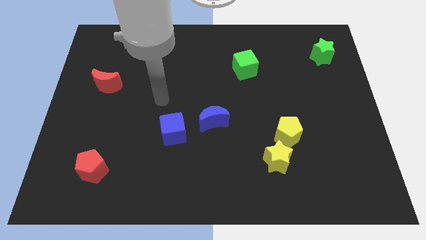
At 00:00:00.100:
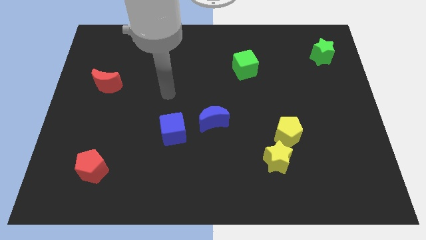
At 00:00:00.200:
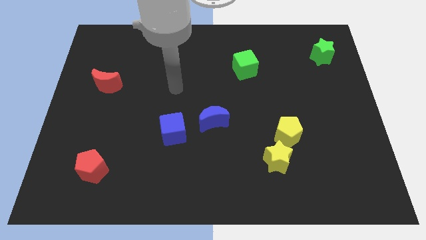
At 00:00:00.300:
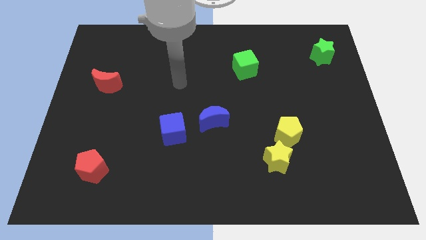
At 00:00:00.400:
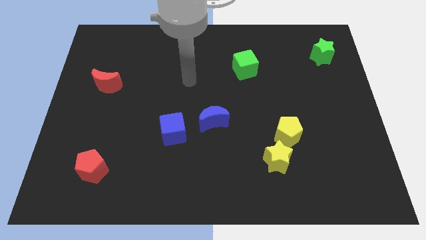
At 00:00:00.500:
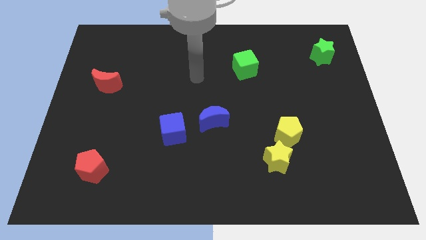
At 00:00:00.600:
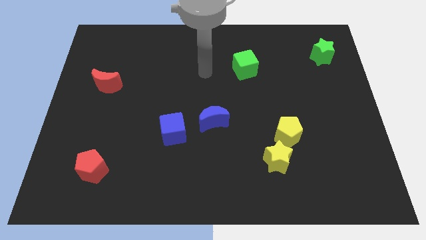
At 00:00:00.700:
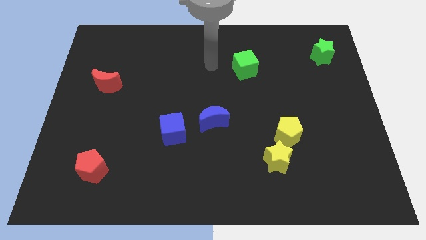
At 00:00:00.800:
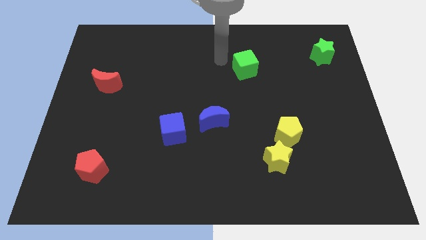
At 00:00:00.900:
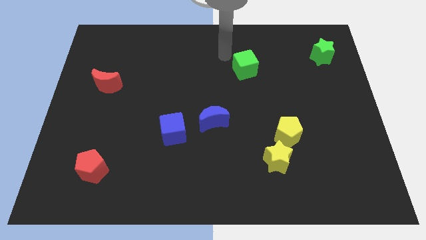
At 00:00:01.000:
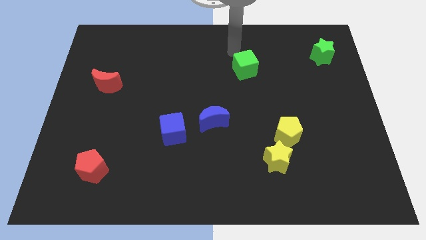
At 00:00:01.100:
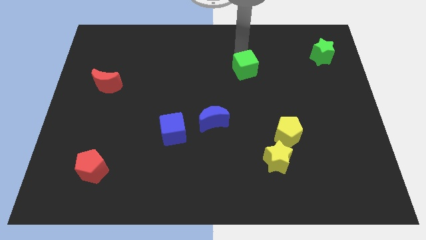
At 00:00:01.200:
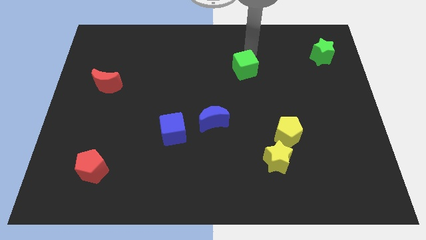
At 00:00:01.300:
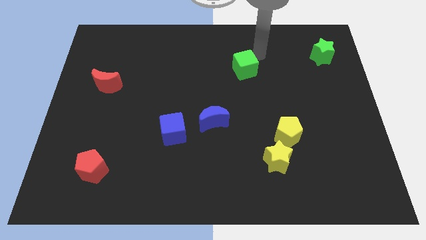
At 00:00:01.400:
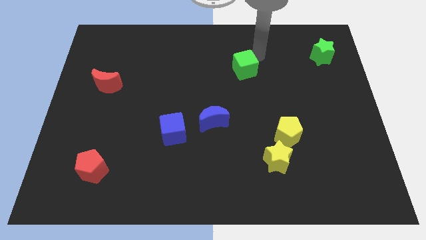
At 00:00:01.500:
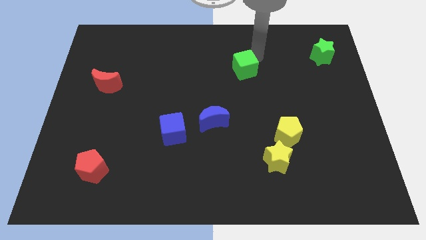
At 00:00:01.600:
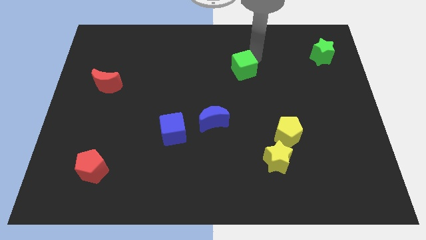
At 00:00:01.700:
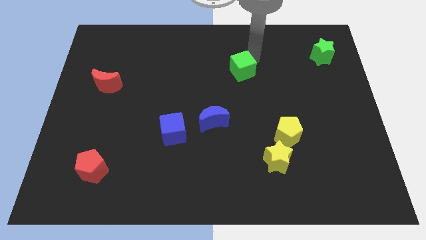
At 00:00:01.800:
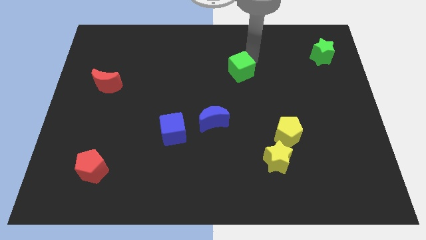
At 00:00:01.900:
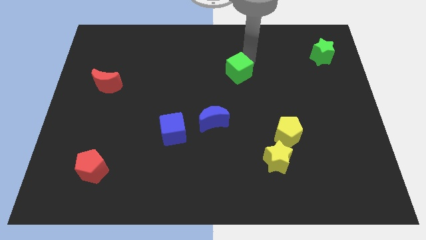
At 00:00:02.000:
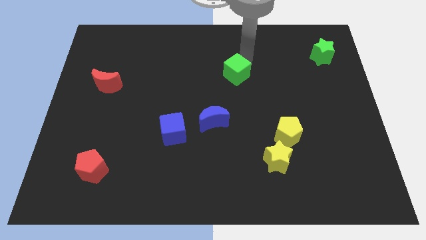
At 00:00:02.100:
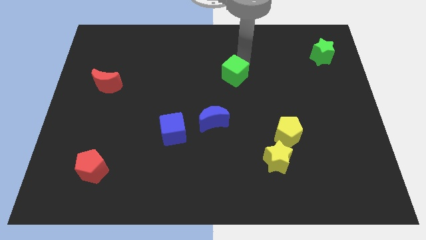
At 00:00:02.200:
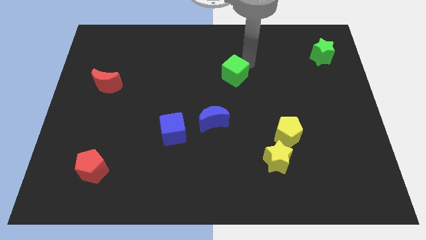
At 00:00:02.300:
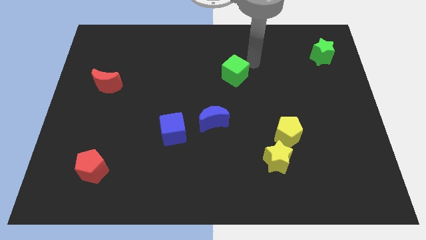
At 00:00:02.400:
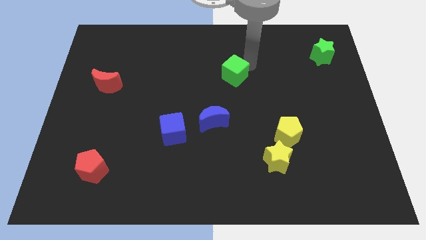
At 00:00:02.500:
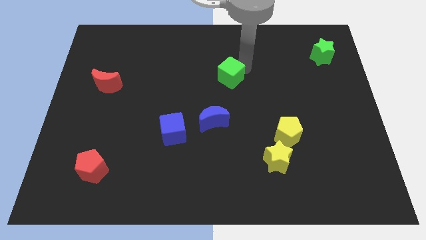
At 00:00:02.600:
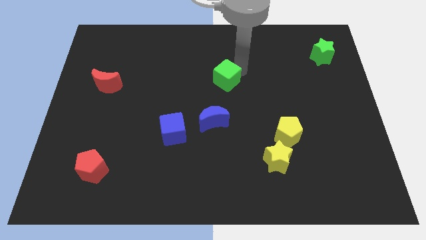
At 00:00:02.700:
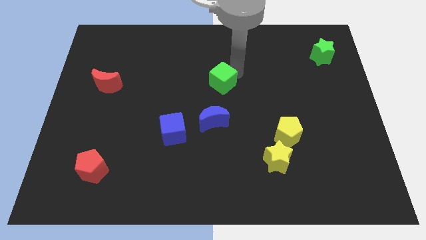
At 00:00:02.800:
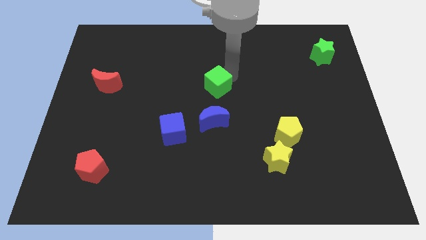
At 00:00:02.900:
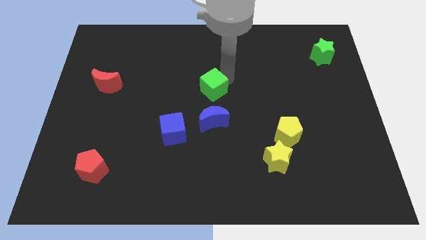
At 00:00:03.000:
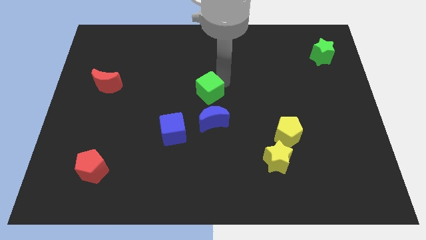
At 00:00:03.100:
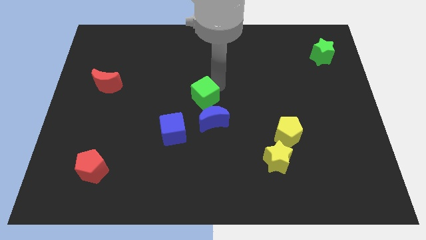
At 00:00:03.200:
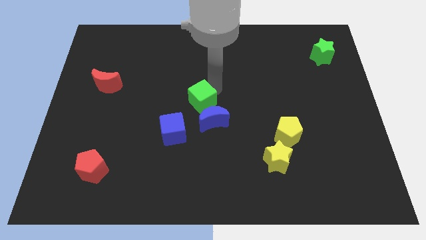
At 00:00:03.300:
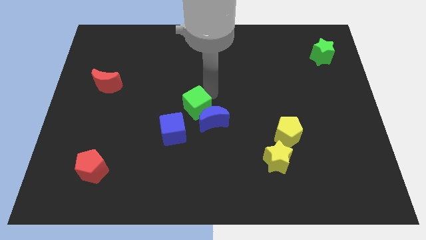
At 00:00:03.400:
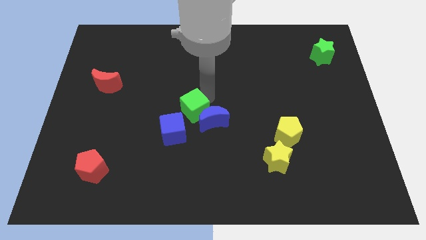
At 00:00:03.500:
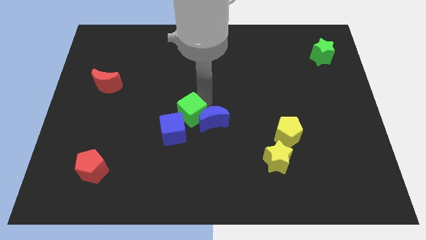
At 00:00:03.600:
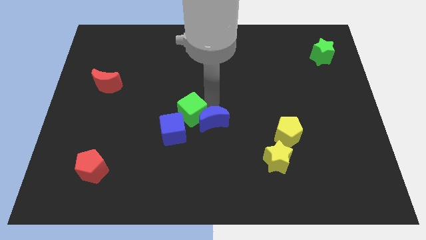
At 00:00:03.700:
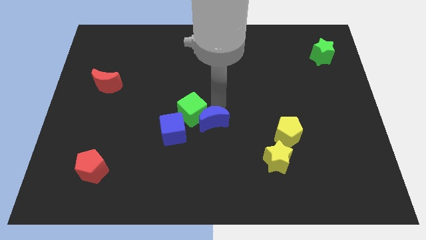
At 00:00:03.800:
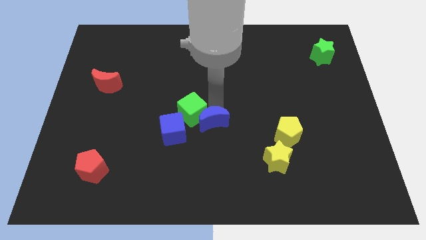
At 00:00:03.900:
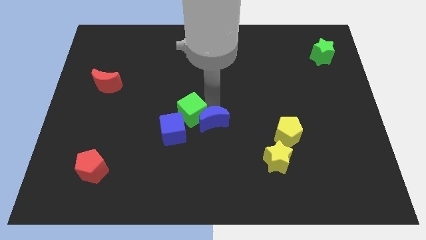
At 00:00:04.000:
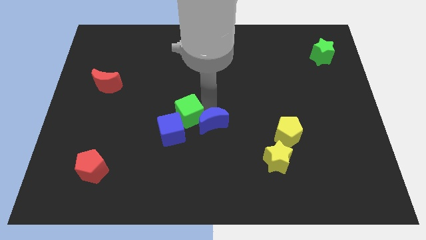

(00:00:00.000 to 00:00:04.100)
slide the green cube diagonally down and to the left

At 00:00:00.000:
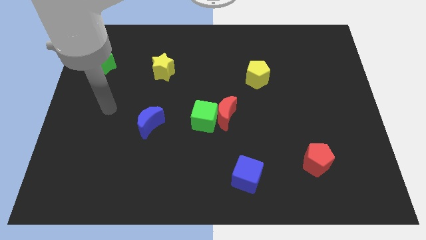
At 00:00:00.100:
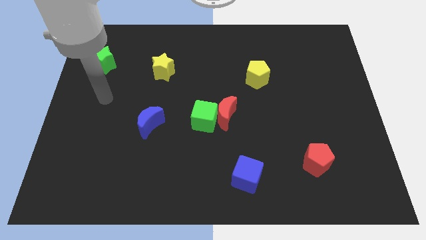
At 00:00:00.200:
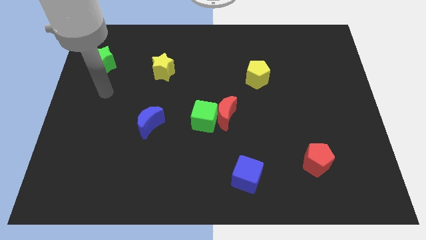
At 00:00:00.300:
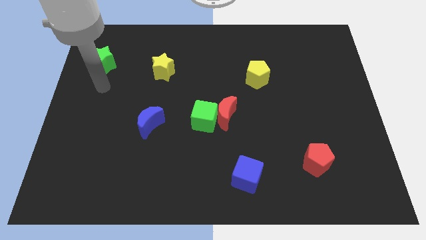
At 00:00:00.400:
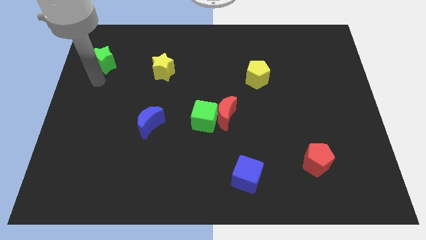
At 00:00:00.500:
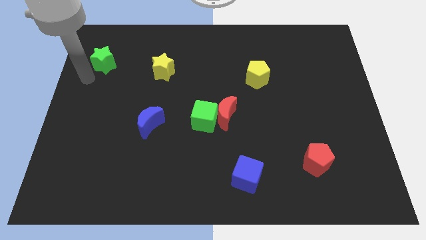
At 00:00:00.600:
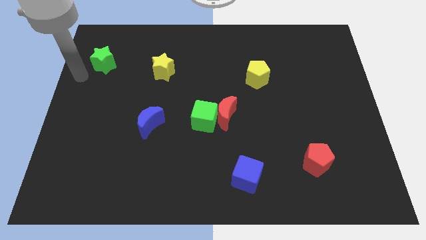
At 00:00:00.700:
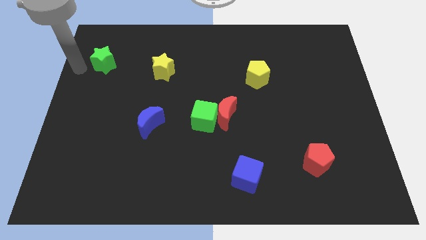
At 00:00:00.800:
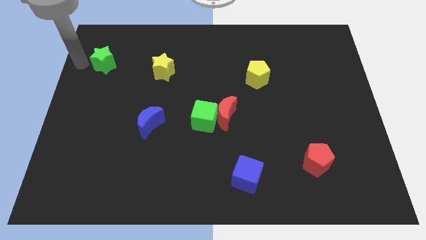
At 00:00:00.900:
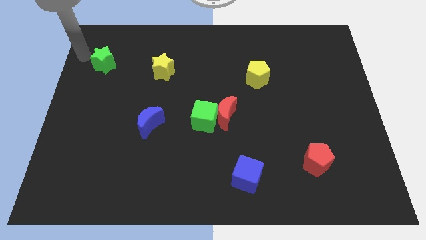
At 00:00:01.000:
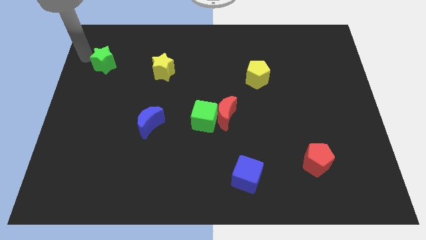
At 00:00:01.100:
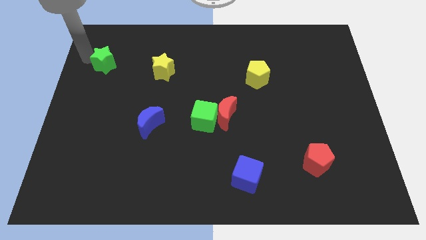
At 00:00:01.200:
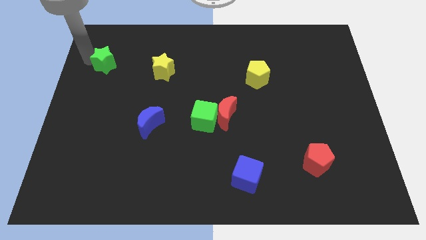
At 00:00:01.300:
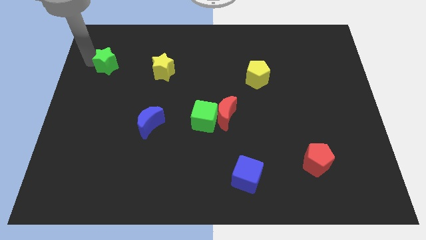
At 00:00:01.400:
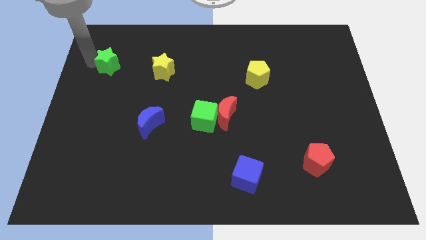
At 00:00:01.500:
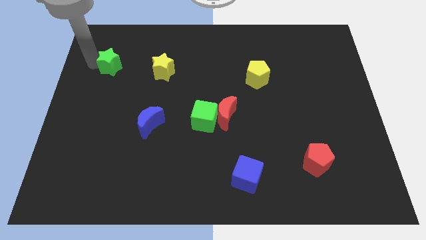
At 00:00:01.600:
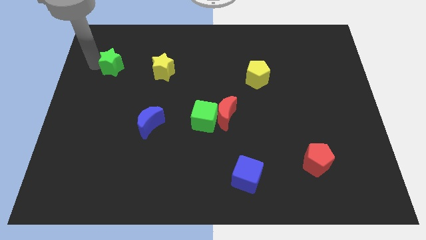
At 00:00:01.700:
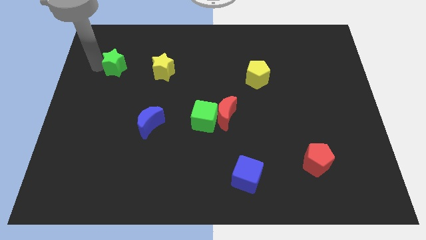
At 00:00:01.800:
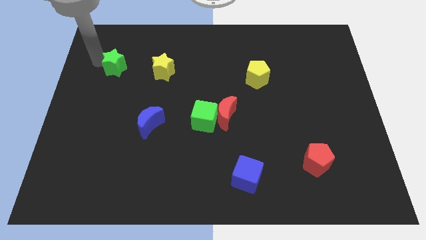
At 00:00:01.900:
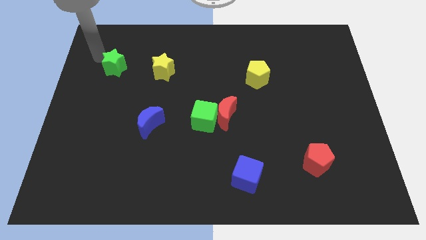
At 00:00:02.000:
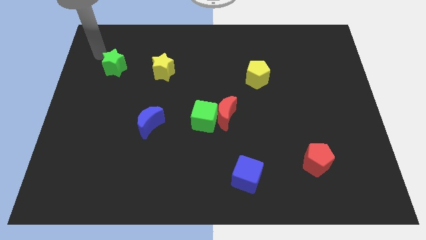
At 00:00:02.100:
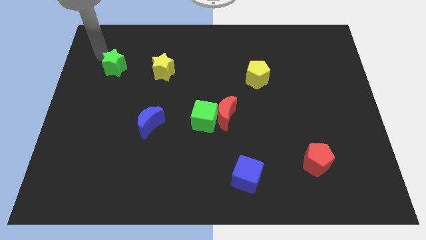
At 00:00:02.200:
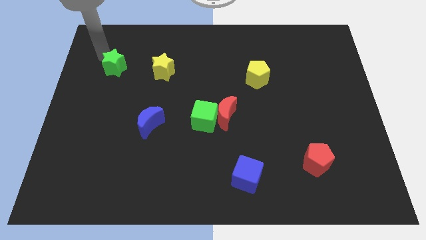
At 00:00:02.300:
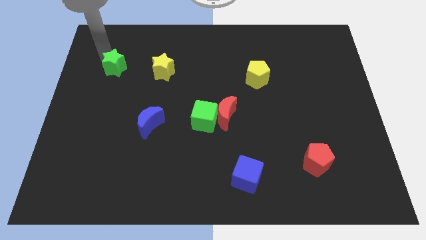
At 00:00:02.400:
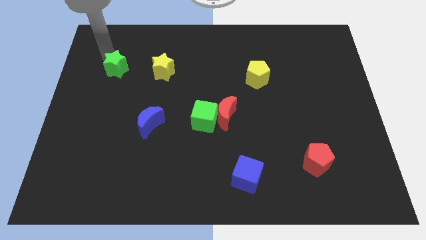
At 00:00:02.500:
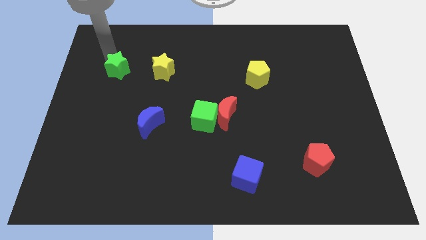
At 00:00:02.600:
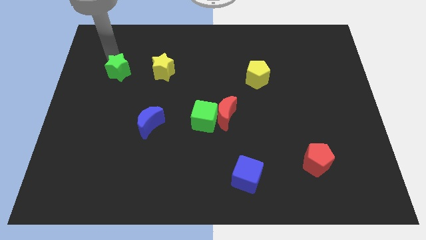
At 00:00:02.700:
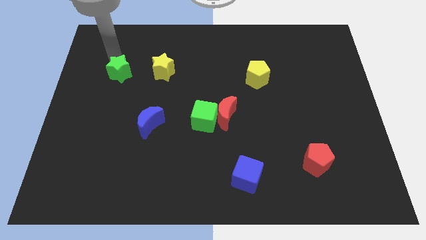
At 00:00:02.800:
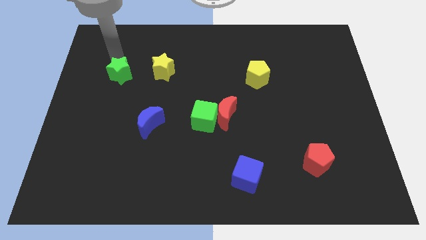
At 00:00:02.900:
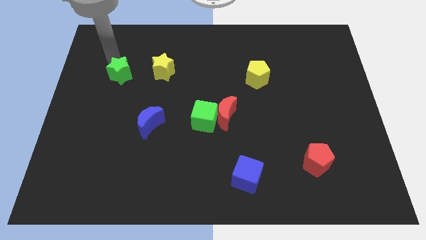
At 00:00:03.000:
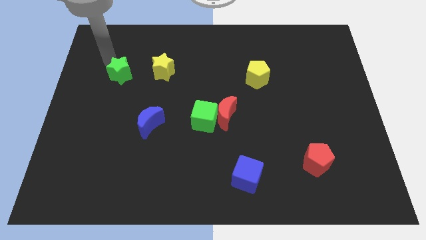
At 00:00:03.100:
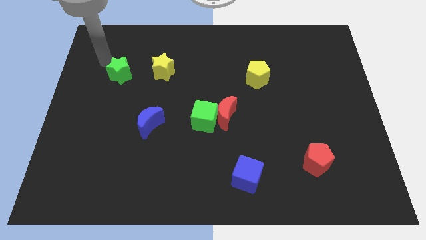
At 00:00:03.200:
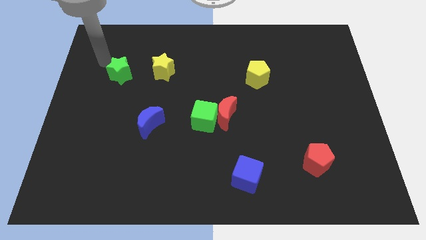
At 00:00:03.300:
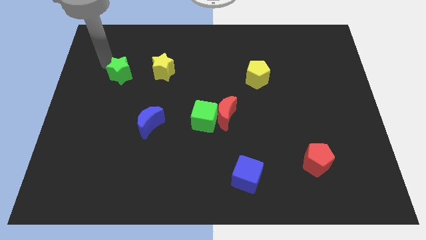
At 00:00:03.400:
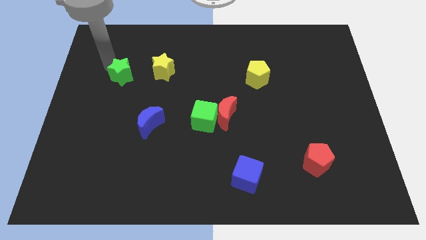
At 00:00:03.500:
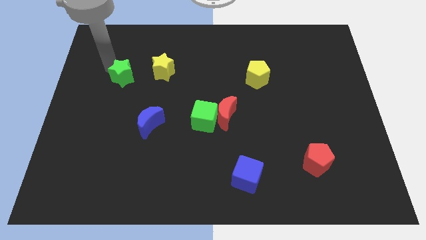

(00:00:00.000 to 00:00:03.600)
slightly slide the green star downwards and to the right diagonally
